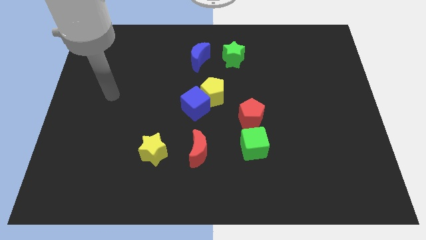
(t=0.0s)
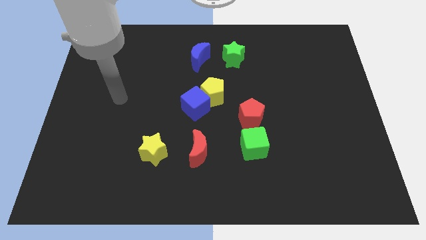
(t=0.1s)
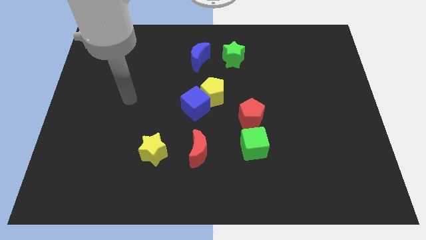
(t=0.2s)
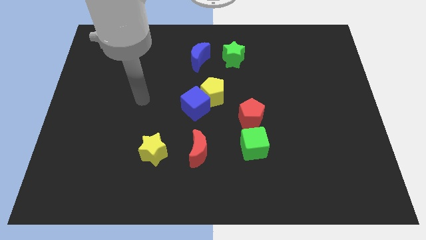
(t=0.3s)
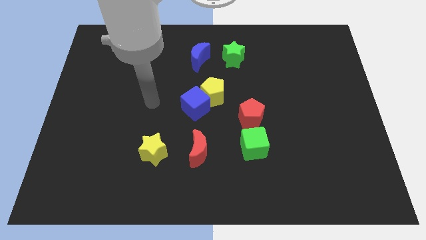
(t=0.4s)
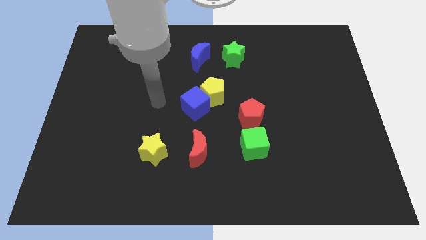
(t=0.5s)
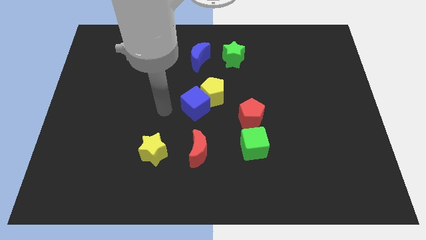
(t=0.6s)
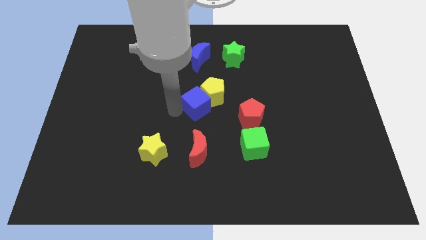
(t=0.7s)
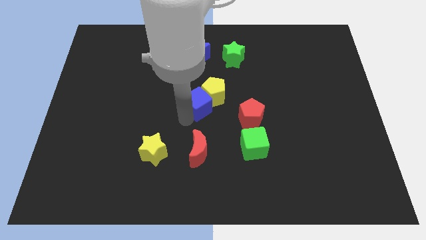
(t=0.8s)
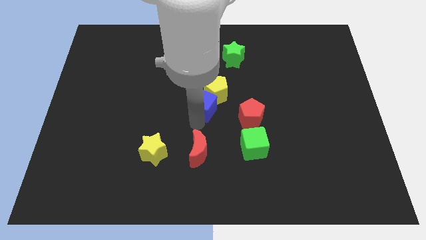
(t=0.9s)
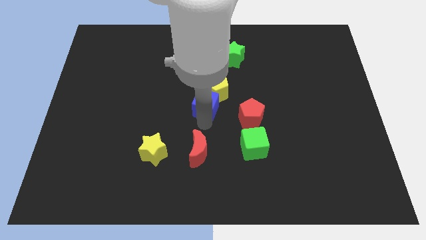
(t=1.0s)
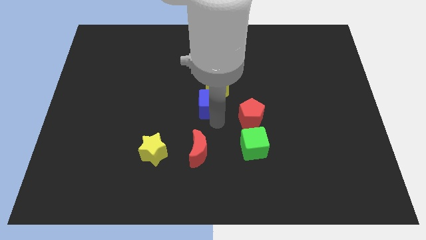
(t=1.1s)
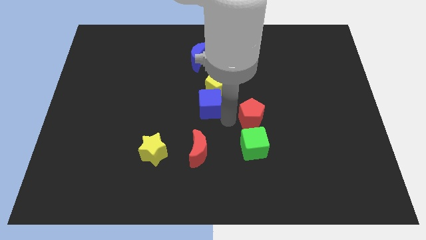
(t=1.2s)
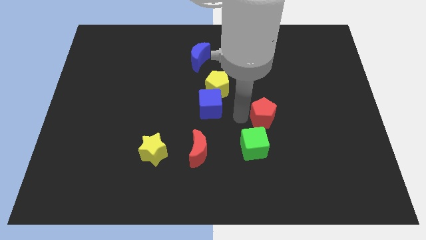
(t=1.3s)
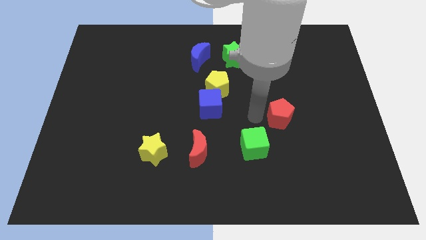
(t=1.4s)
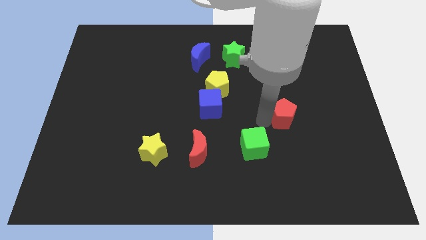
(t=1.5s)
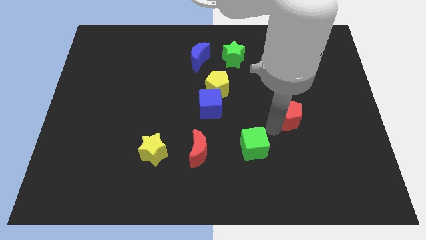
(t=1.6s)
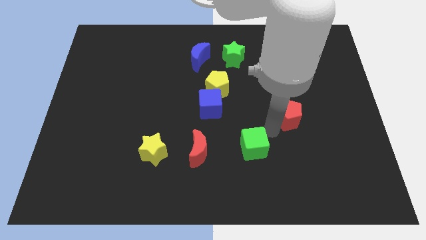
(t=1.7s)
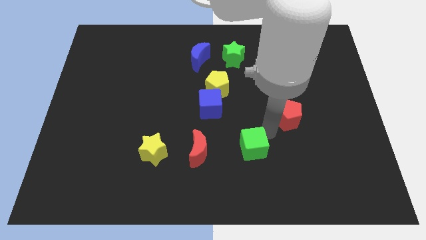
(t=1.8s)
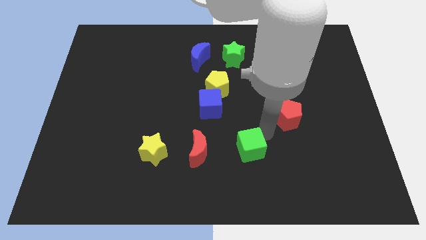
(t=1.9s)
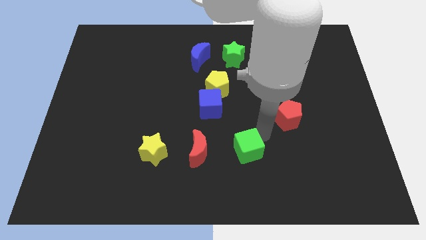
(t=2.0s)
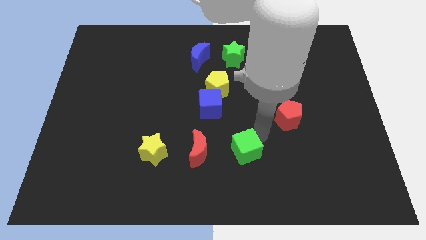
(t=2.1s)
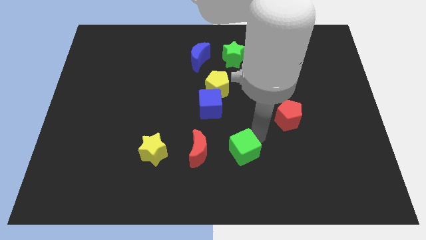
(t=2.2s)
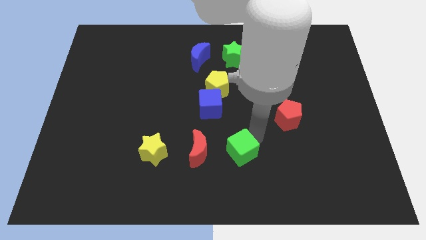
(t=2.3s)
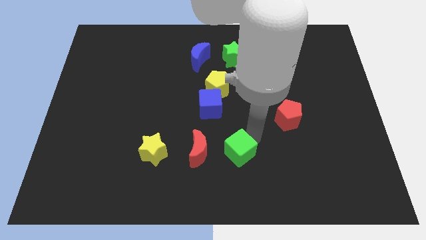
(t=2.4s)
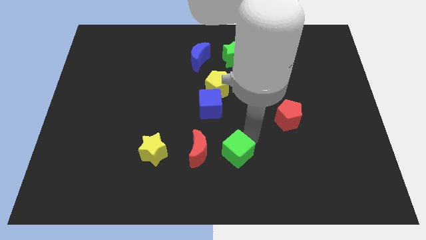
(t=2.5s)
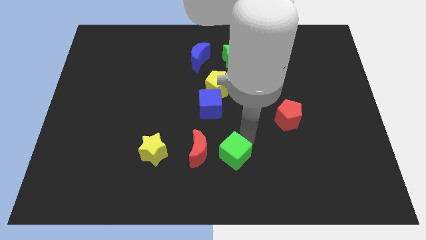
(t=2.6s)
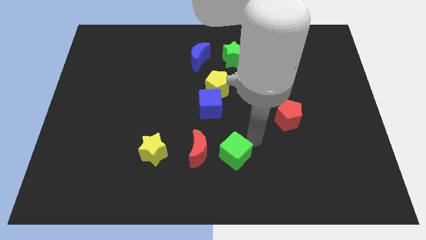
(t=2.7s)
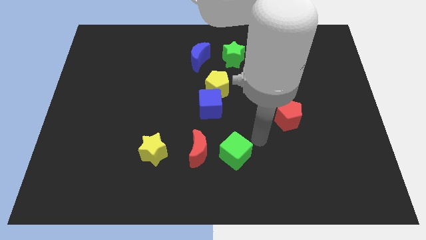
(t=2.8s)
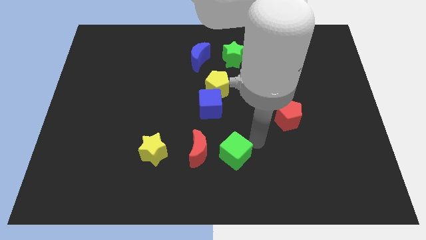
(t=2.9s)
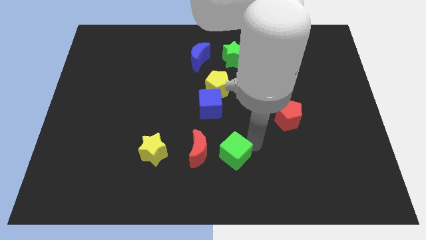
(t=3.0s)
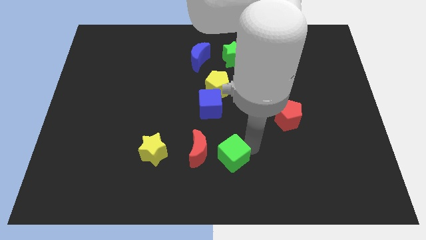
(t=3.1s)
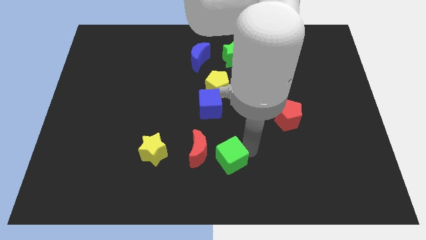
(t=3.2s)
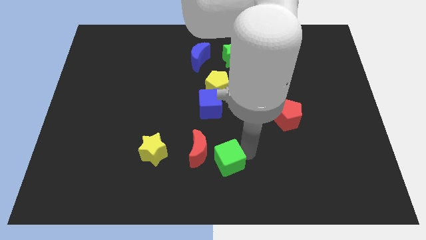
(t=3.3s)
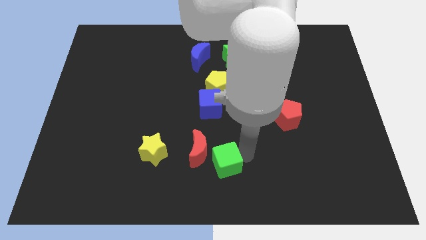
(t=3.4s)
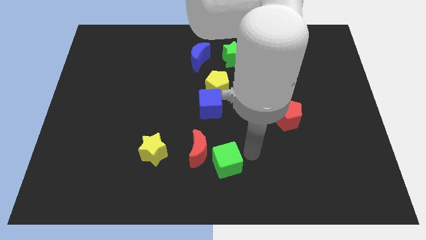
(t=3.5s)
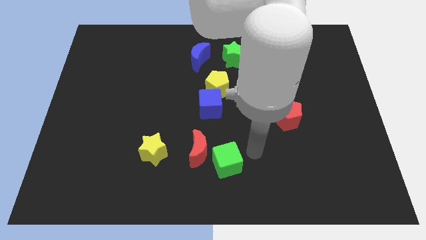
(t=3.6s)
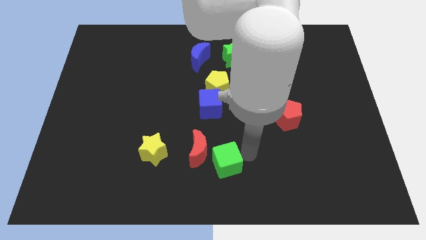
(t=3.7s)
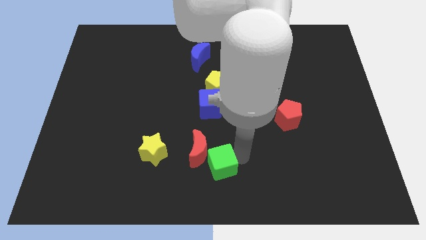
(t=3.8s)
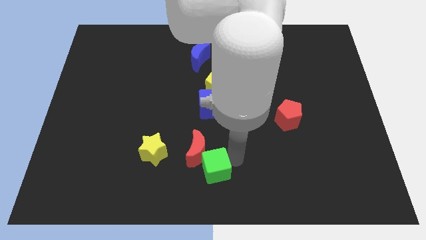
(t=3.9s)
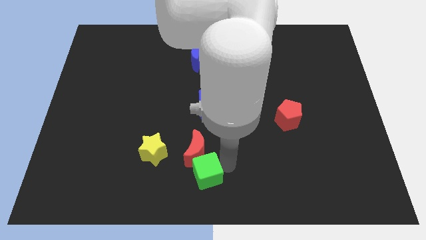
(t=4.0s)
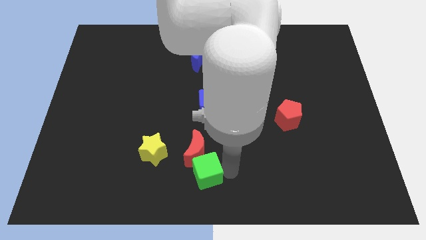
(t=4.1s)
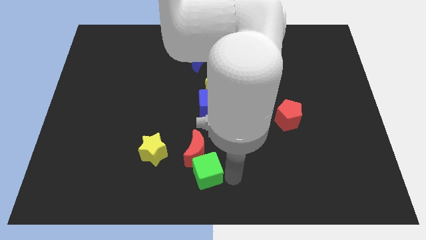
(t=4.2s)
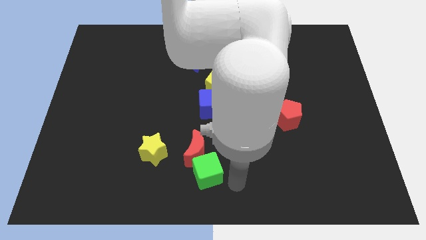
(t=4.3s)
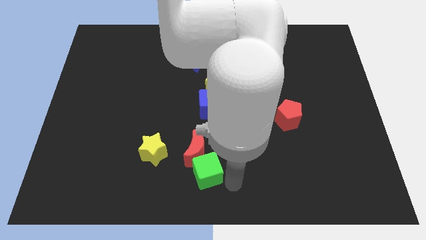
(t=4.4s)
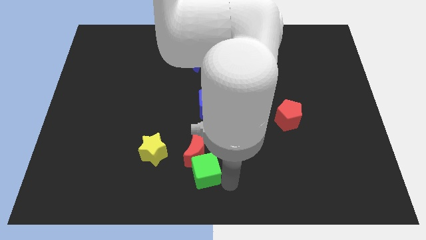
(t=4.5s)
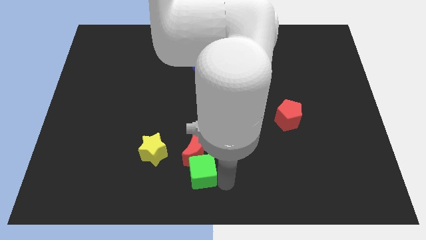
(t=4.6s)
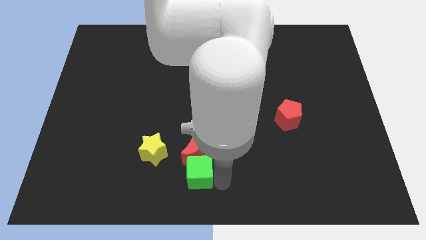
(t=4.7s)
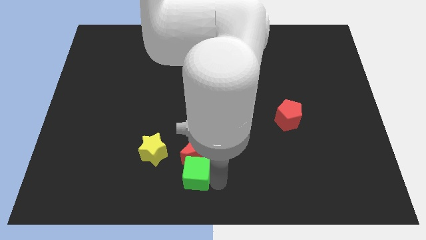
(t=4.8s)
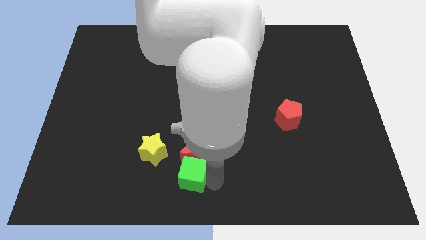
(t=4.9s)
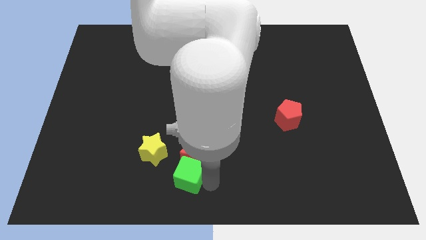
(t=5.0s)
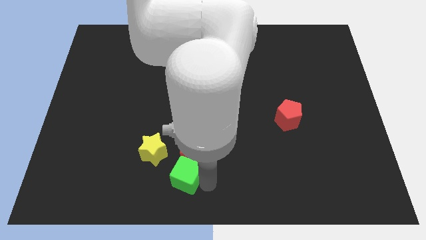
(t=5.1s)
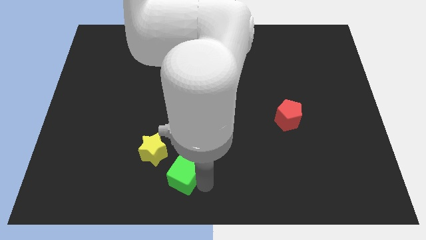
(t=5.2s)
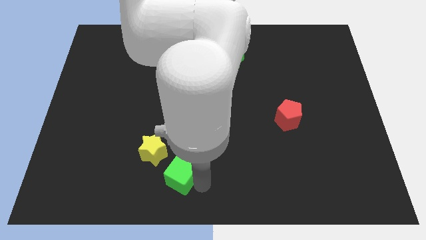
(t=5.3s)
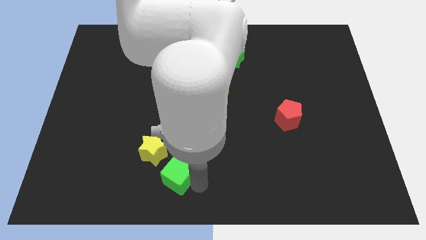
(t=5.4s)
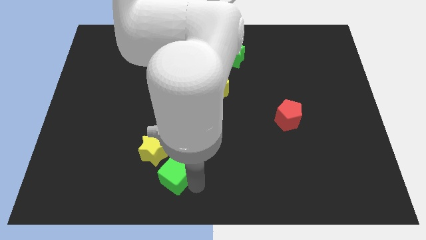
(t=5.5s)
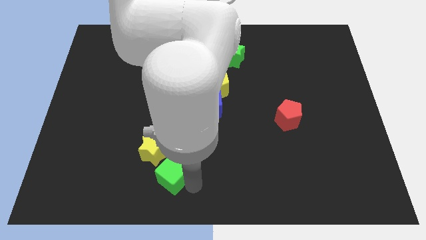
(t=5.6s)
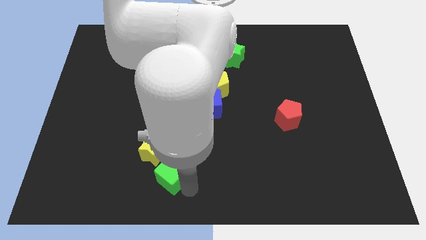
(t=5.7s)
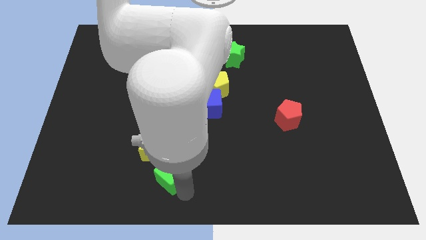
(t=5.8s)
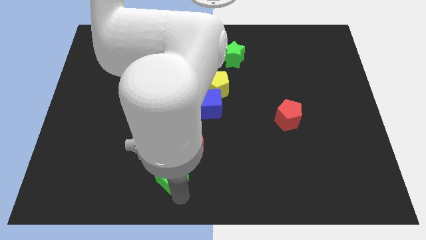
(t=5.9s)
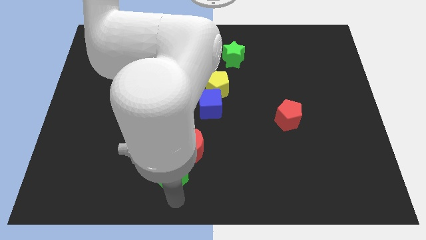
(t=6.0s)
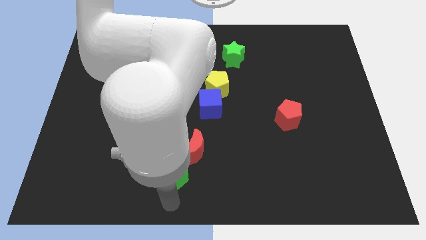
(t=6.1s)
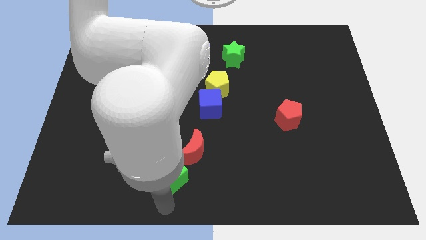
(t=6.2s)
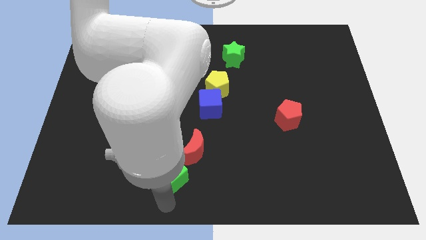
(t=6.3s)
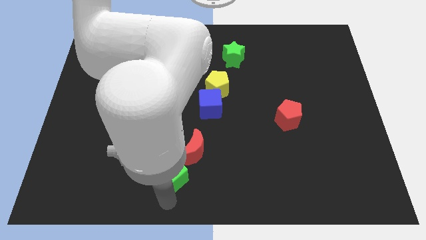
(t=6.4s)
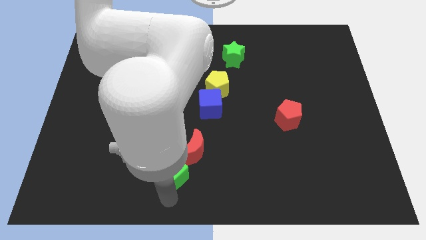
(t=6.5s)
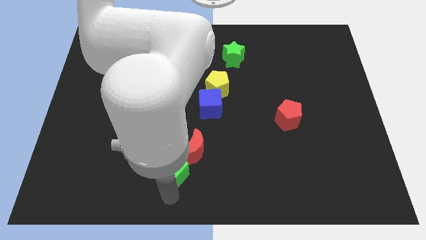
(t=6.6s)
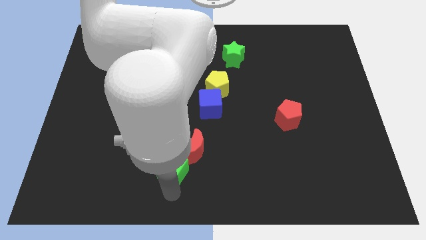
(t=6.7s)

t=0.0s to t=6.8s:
move the green cube next to the yellow star
